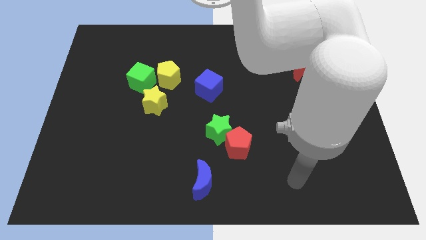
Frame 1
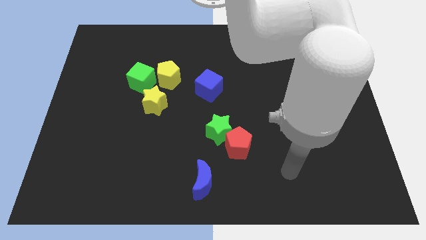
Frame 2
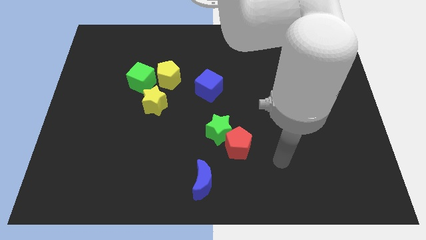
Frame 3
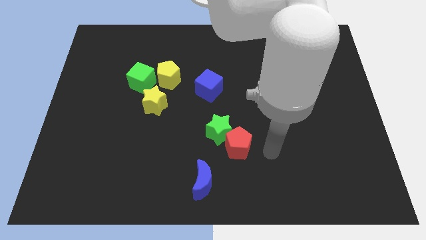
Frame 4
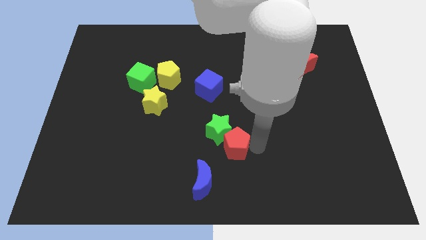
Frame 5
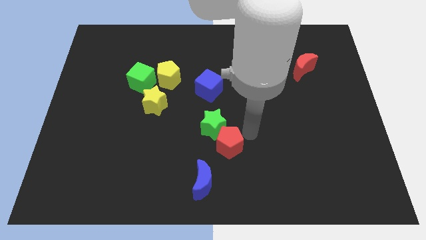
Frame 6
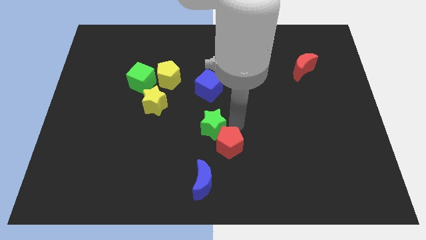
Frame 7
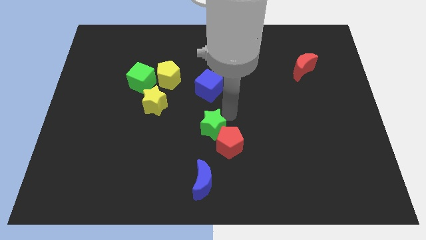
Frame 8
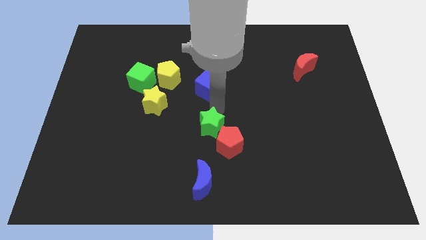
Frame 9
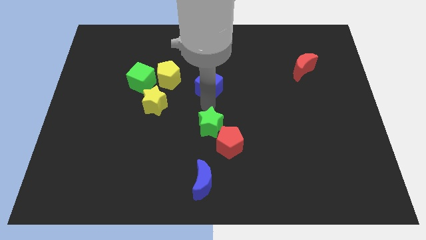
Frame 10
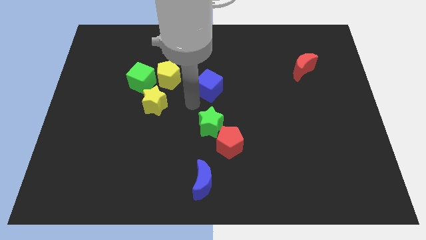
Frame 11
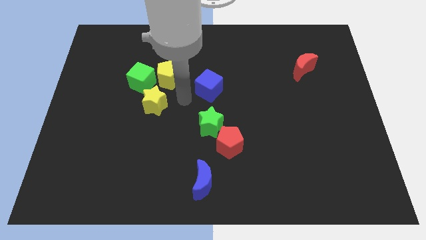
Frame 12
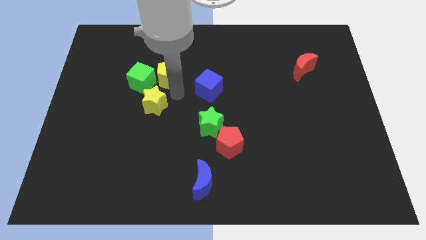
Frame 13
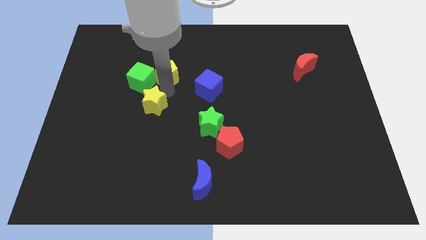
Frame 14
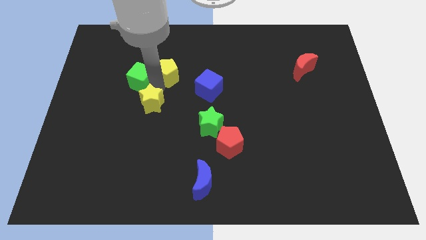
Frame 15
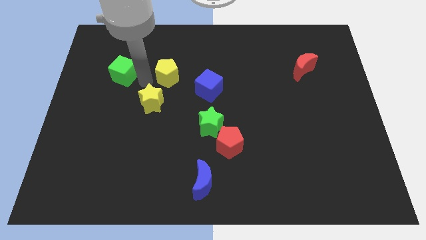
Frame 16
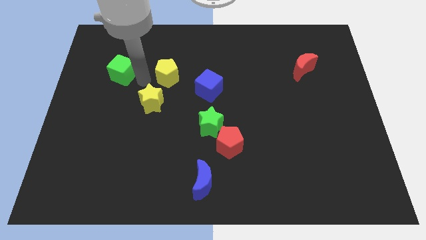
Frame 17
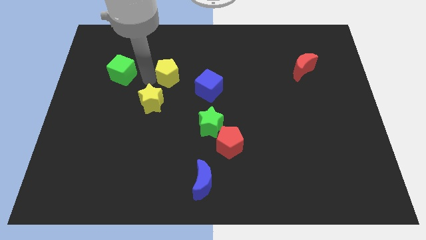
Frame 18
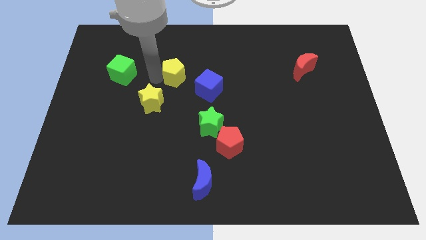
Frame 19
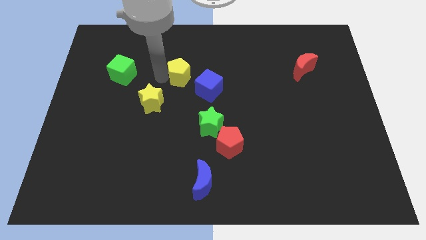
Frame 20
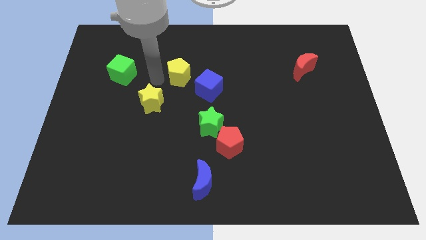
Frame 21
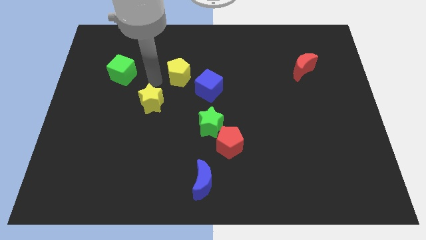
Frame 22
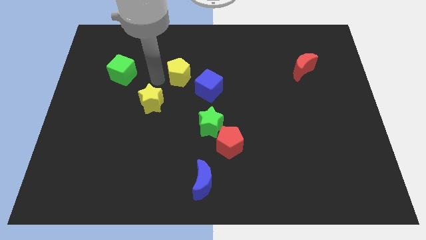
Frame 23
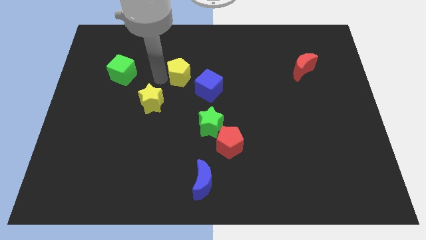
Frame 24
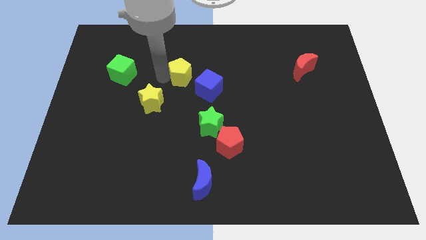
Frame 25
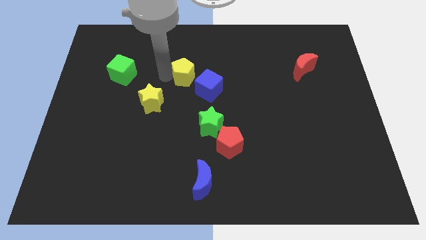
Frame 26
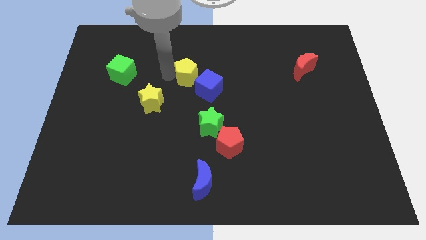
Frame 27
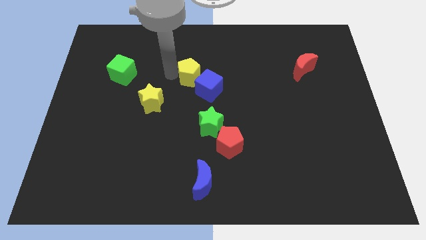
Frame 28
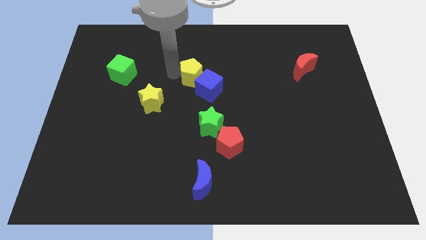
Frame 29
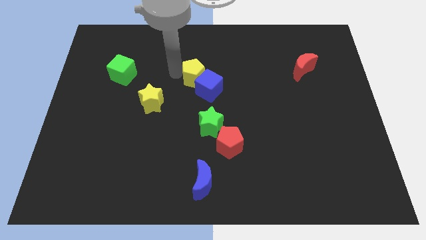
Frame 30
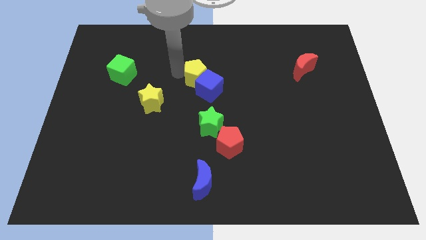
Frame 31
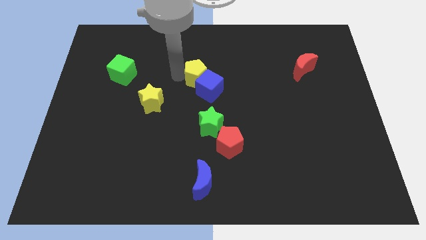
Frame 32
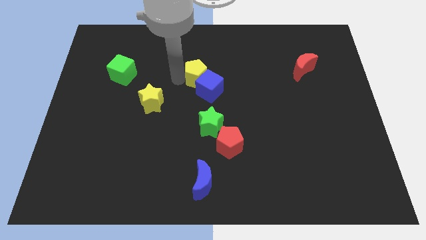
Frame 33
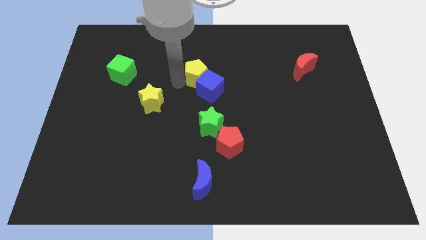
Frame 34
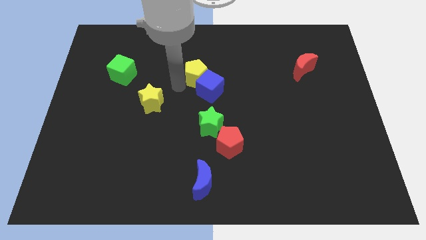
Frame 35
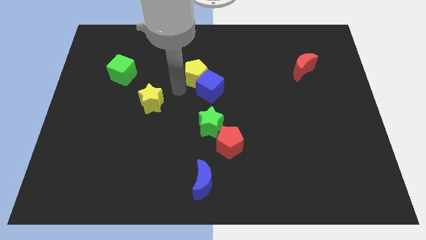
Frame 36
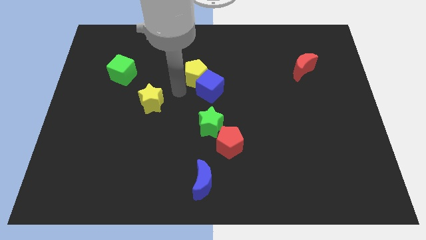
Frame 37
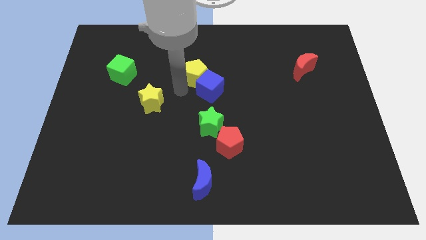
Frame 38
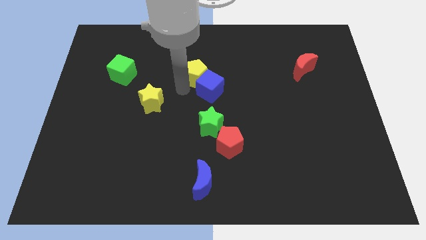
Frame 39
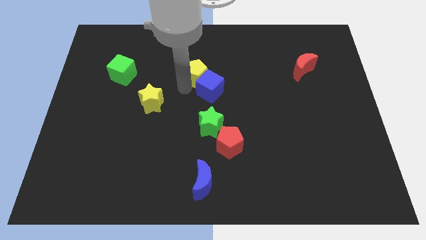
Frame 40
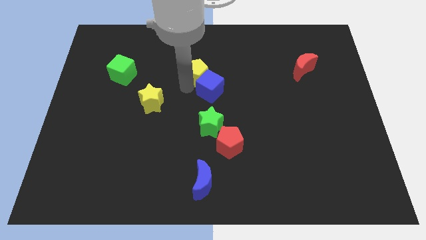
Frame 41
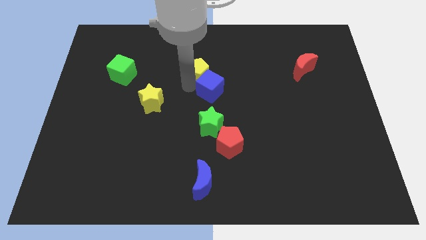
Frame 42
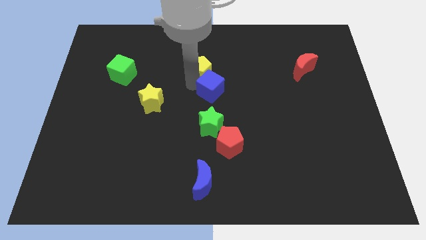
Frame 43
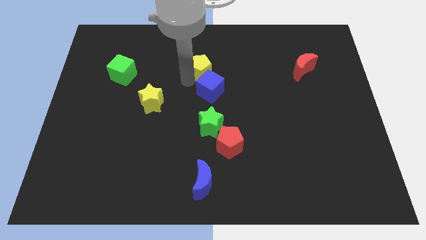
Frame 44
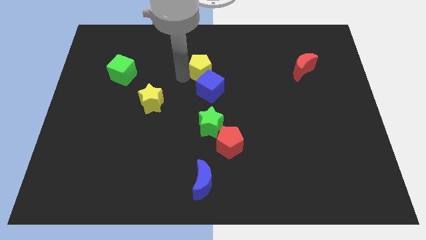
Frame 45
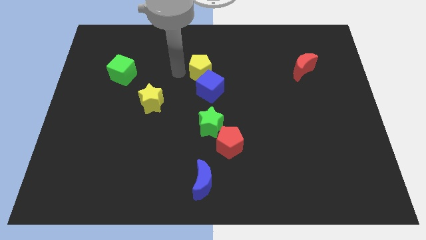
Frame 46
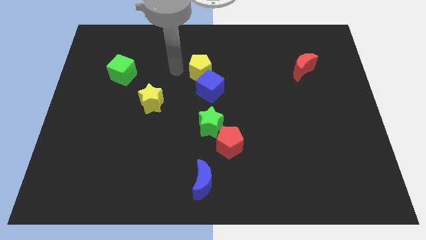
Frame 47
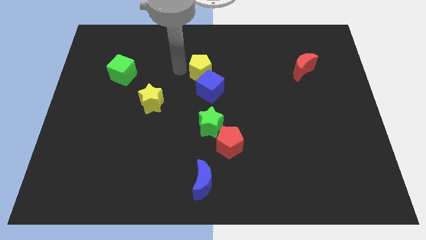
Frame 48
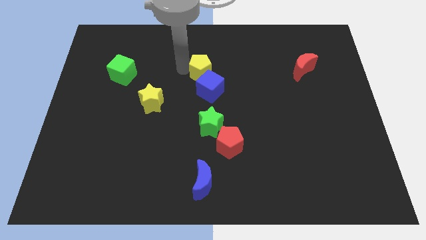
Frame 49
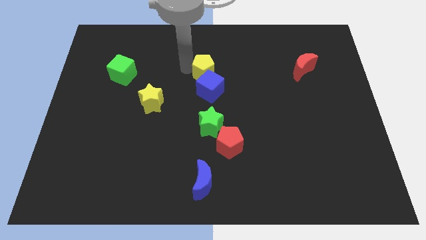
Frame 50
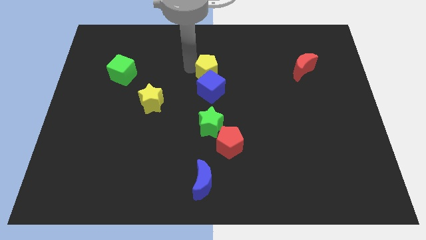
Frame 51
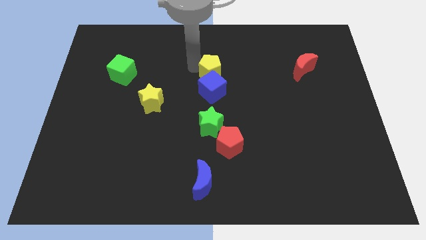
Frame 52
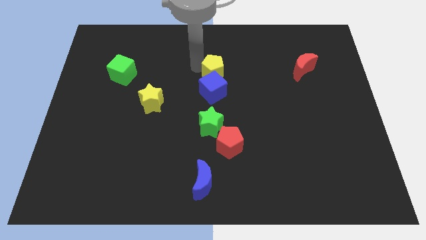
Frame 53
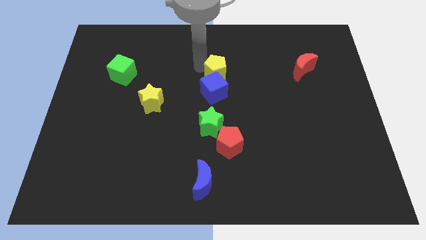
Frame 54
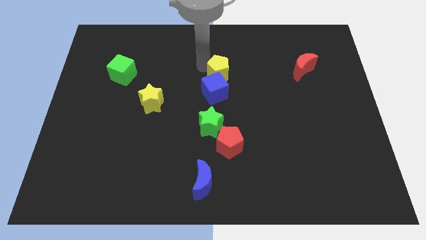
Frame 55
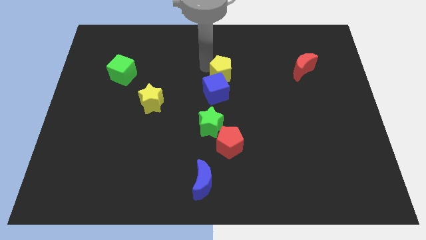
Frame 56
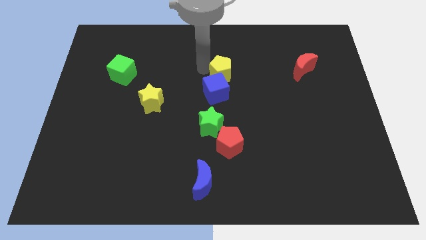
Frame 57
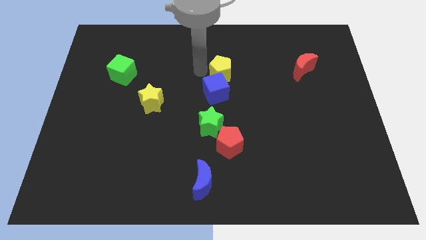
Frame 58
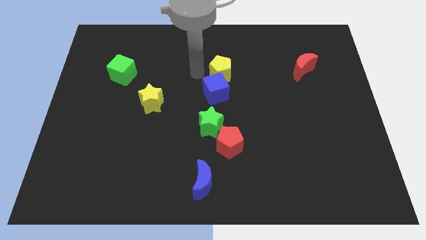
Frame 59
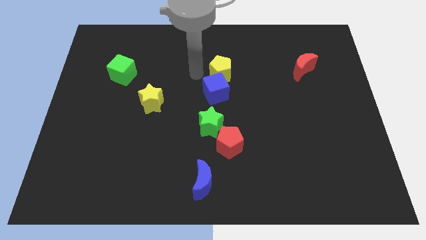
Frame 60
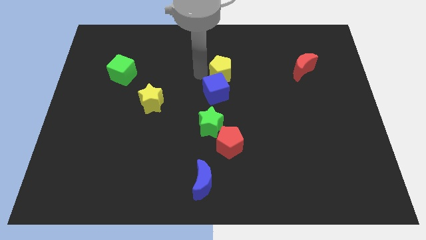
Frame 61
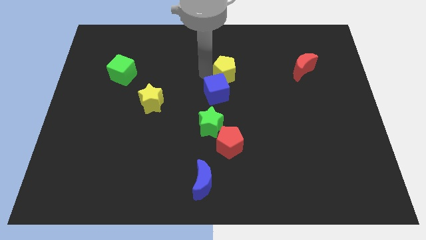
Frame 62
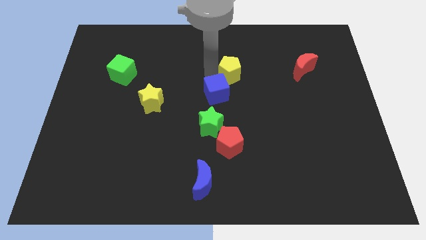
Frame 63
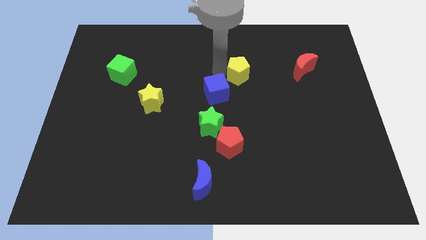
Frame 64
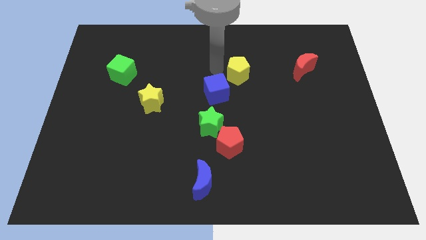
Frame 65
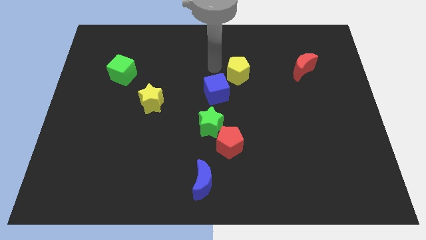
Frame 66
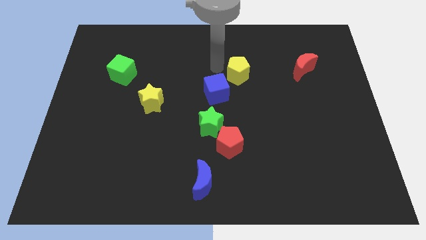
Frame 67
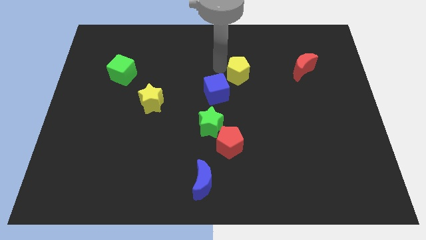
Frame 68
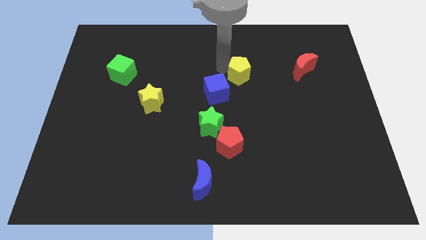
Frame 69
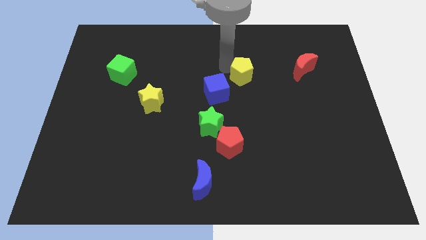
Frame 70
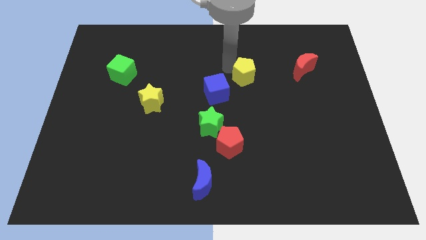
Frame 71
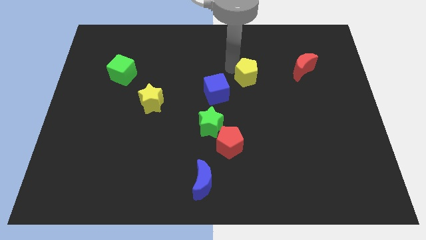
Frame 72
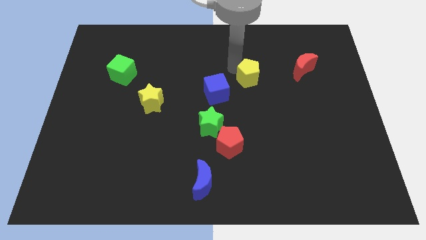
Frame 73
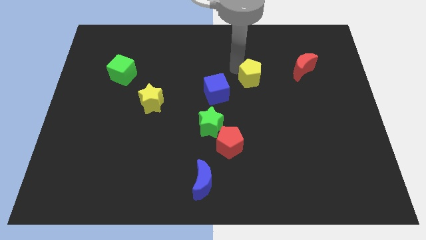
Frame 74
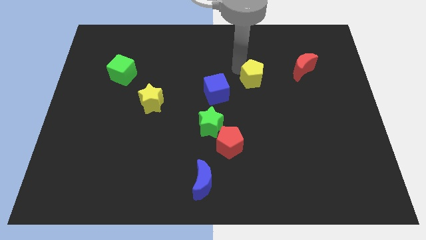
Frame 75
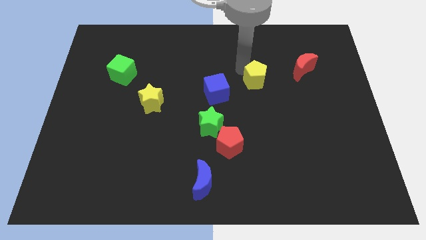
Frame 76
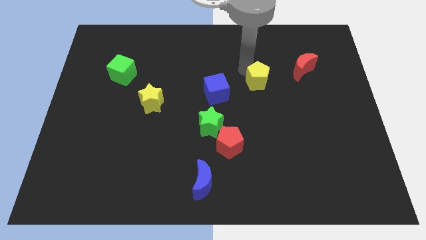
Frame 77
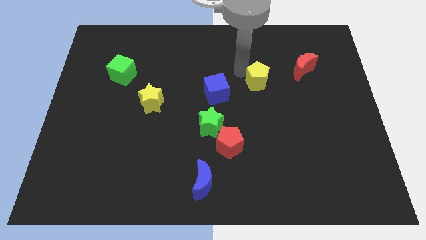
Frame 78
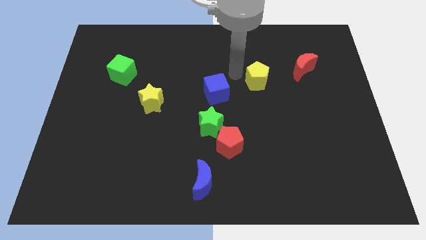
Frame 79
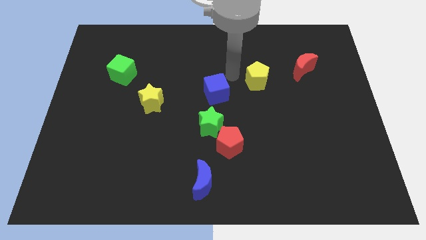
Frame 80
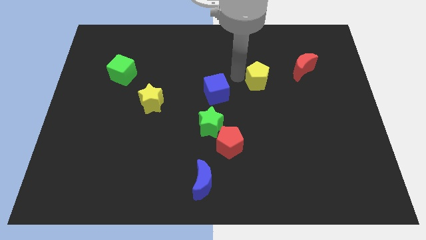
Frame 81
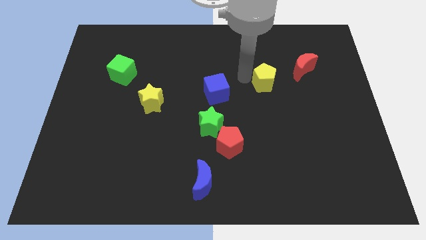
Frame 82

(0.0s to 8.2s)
push the yellow pentagon to the bottom left side of the red moon
